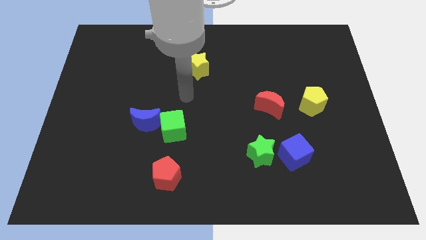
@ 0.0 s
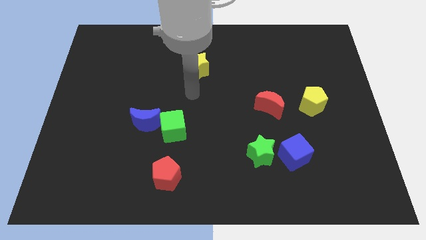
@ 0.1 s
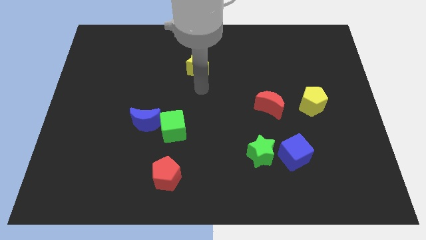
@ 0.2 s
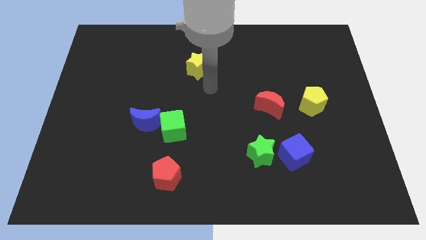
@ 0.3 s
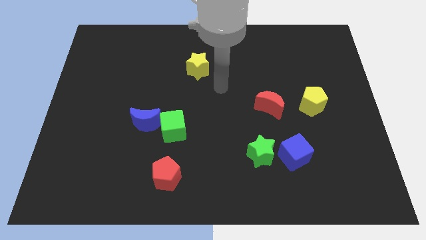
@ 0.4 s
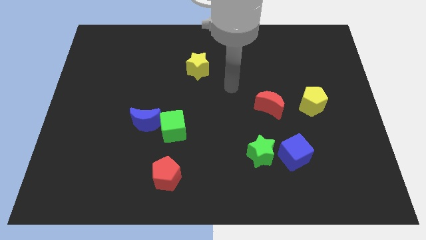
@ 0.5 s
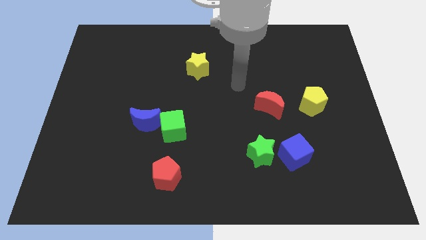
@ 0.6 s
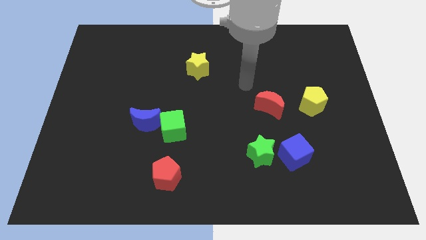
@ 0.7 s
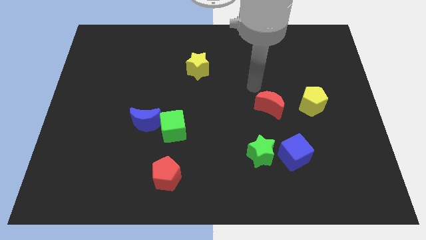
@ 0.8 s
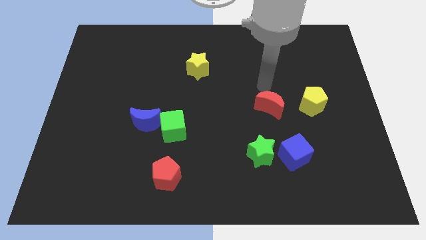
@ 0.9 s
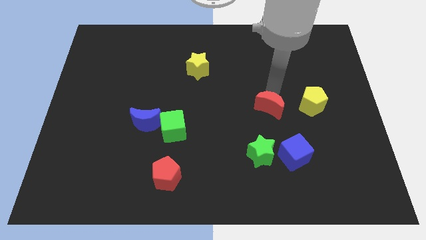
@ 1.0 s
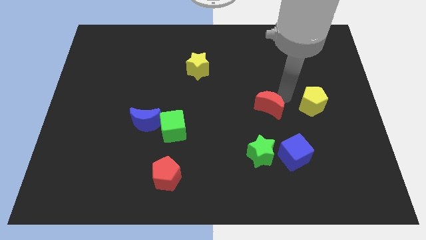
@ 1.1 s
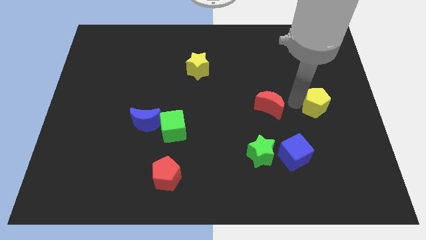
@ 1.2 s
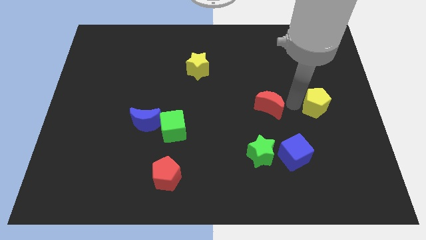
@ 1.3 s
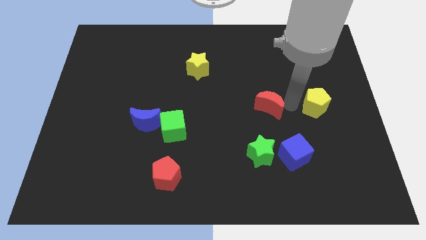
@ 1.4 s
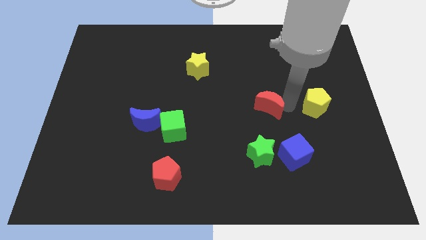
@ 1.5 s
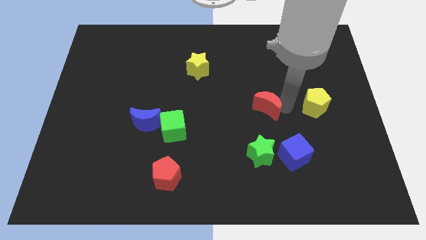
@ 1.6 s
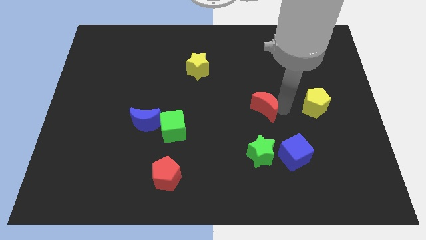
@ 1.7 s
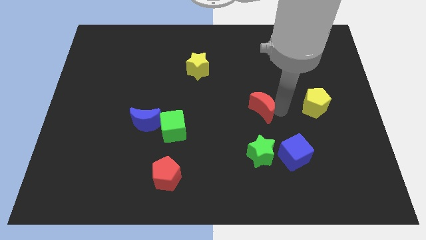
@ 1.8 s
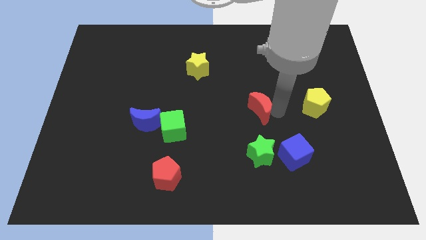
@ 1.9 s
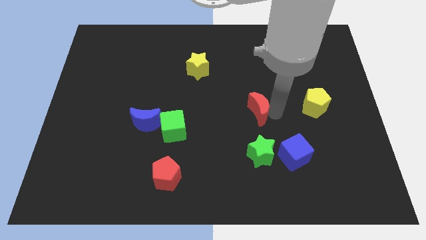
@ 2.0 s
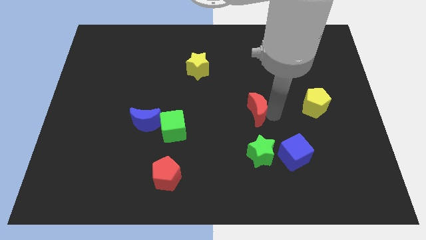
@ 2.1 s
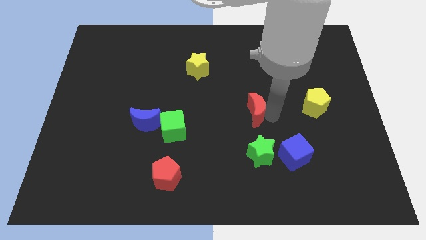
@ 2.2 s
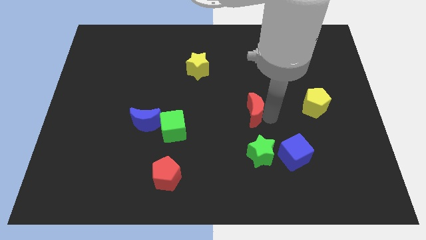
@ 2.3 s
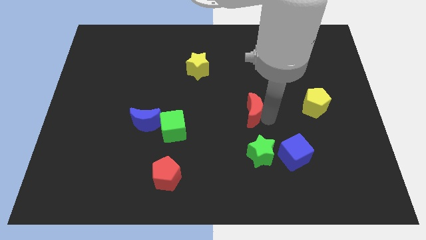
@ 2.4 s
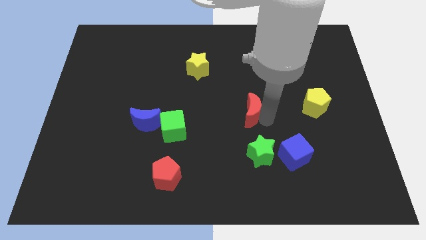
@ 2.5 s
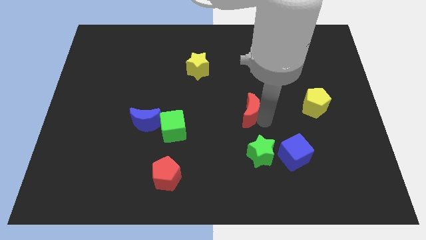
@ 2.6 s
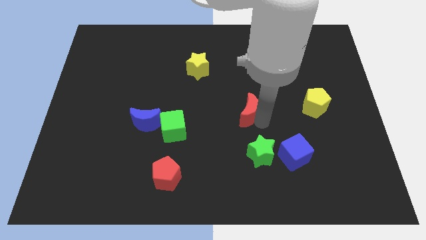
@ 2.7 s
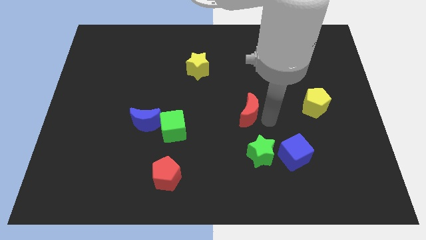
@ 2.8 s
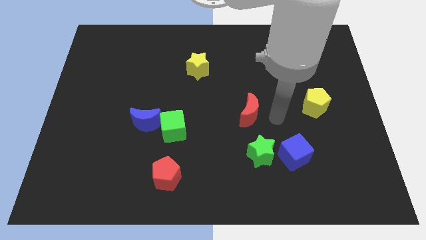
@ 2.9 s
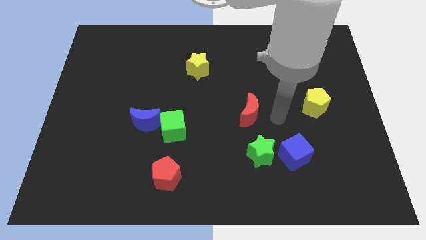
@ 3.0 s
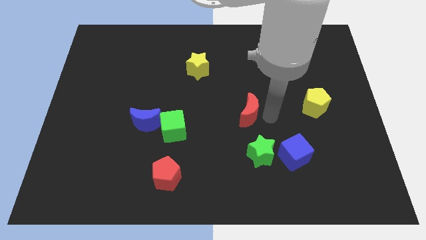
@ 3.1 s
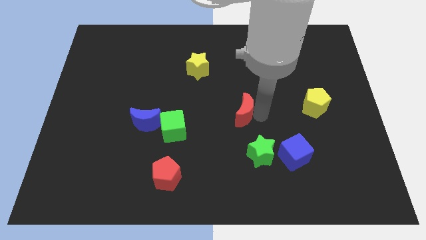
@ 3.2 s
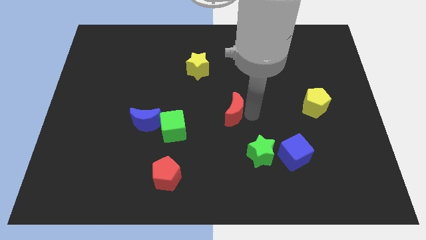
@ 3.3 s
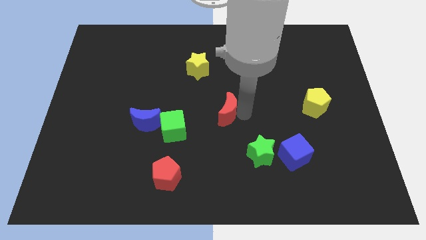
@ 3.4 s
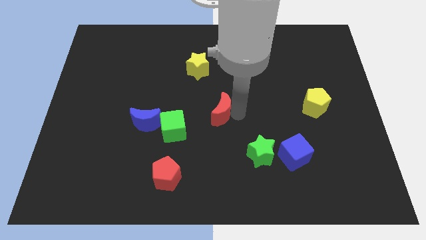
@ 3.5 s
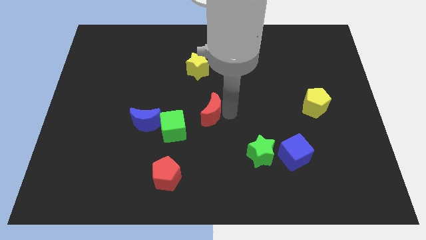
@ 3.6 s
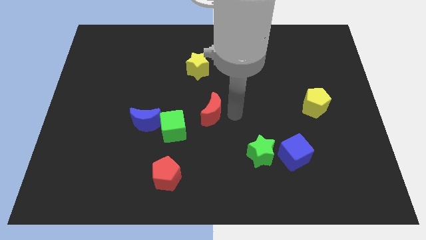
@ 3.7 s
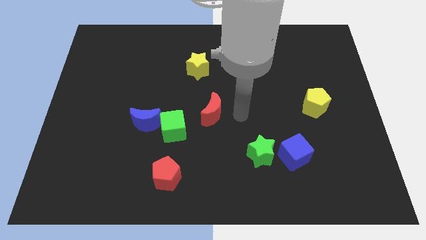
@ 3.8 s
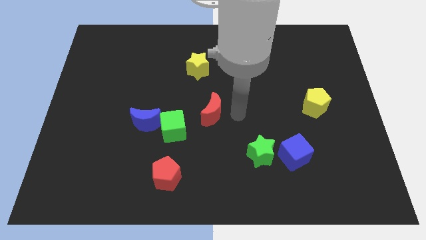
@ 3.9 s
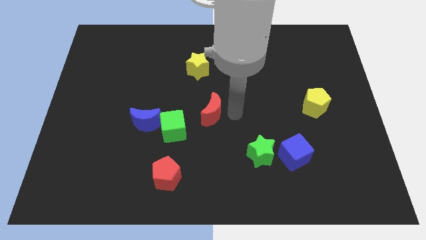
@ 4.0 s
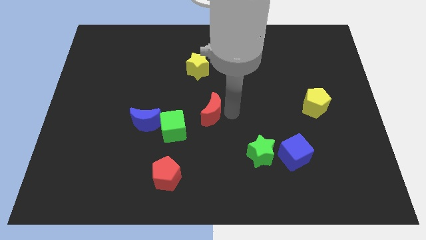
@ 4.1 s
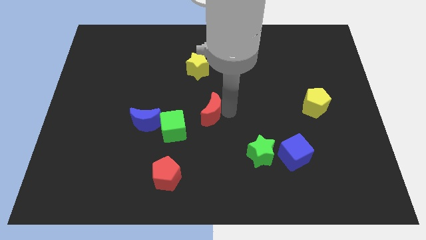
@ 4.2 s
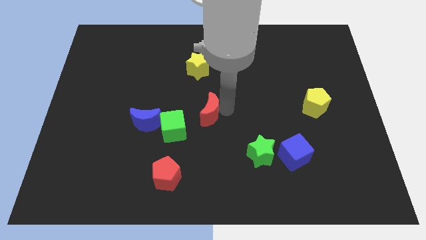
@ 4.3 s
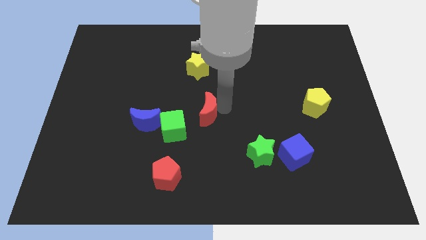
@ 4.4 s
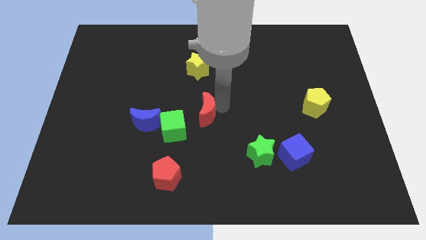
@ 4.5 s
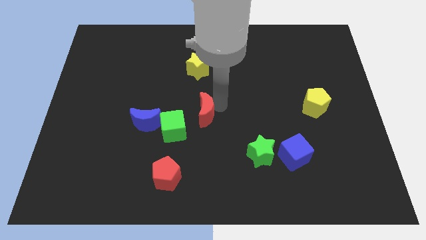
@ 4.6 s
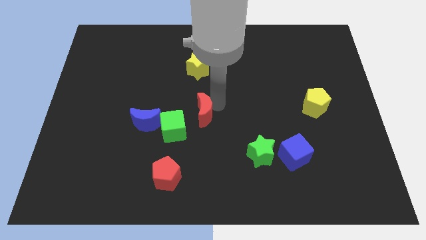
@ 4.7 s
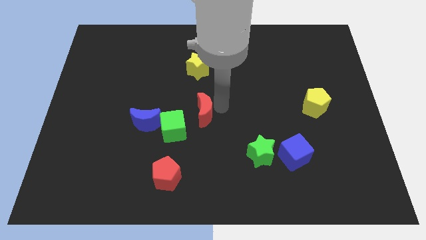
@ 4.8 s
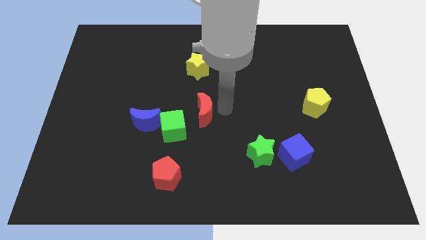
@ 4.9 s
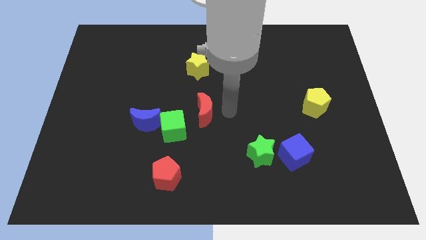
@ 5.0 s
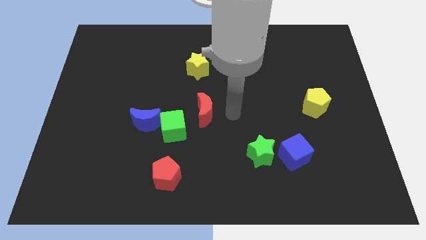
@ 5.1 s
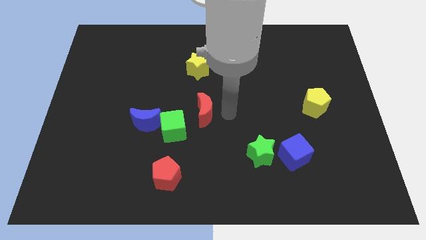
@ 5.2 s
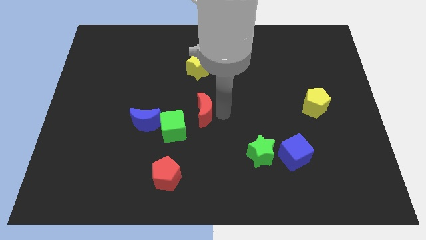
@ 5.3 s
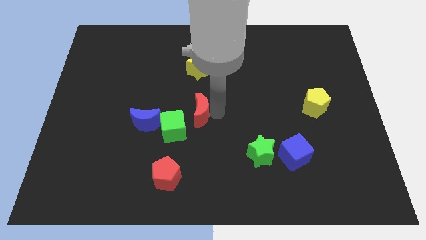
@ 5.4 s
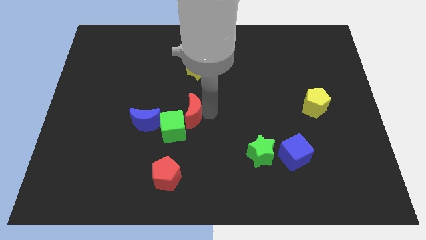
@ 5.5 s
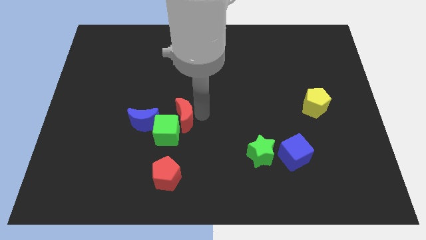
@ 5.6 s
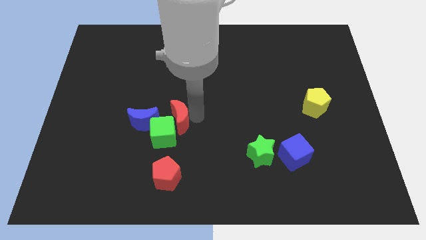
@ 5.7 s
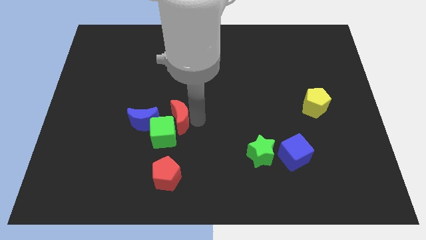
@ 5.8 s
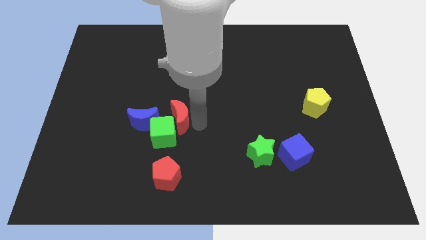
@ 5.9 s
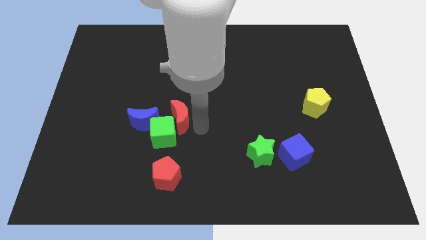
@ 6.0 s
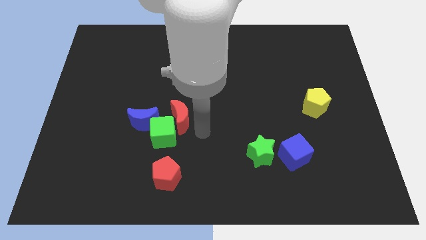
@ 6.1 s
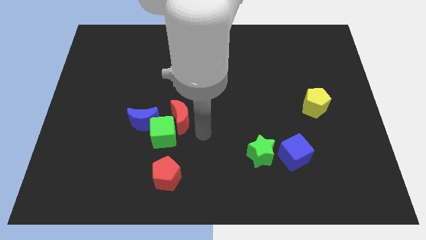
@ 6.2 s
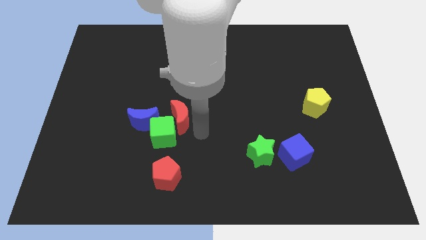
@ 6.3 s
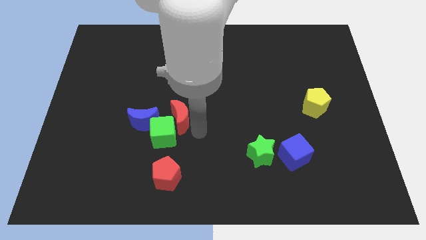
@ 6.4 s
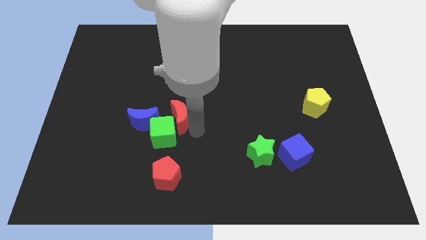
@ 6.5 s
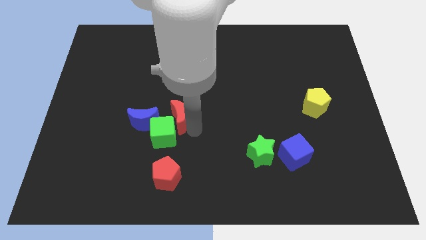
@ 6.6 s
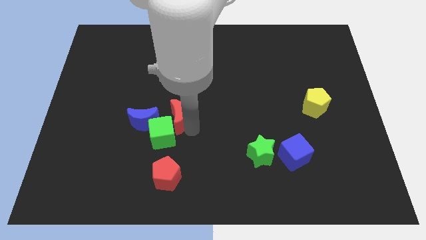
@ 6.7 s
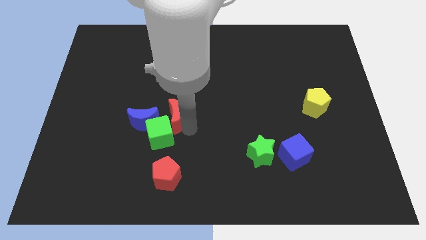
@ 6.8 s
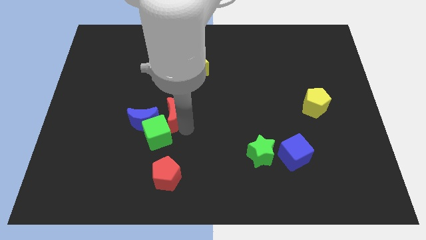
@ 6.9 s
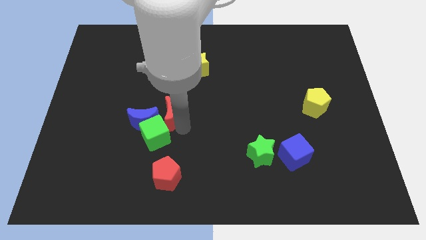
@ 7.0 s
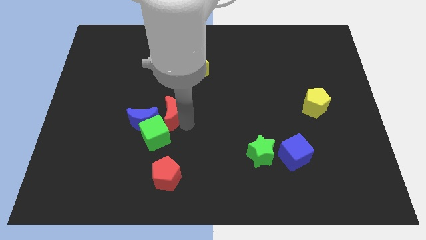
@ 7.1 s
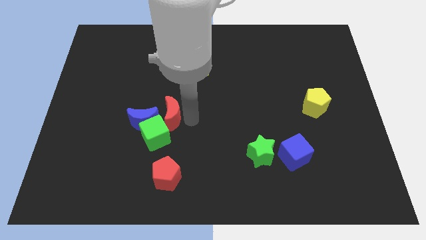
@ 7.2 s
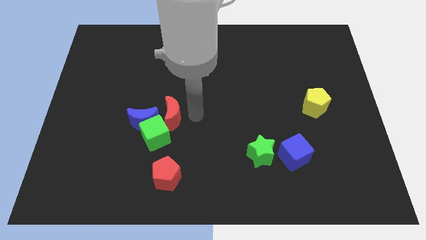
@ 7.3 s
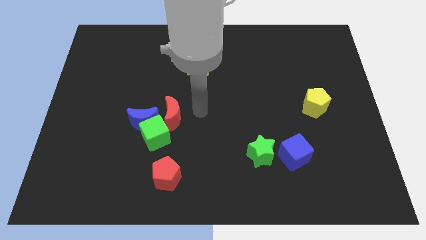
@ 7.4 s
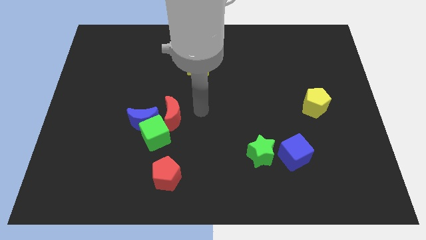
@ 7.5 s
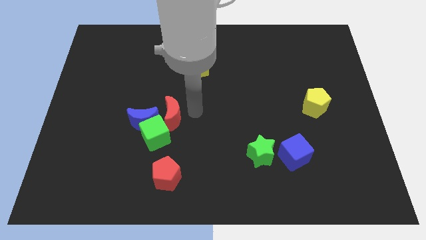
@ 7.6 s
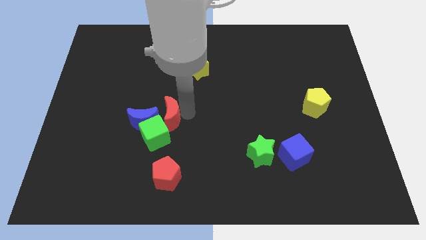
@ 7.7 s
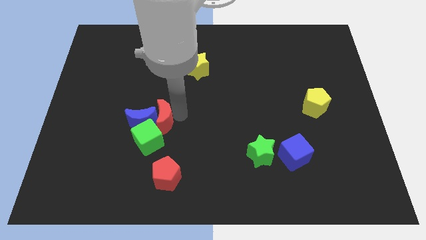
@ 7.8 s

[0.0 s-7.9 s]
put the red moon to the blue moon
